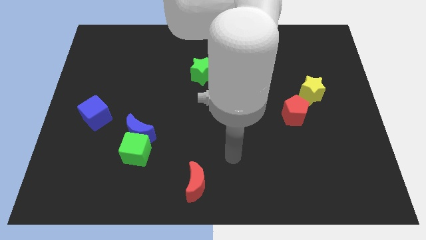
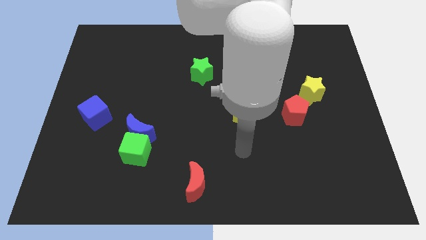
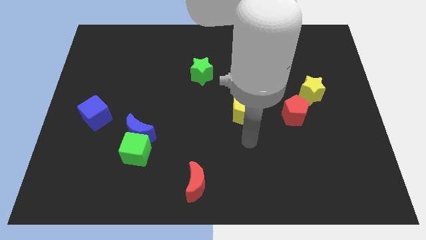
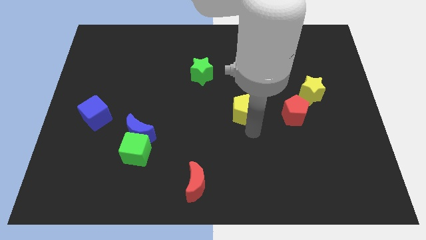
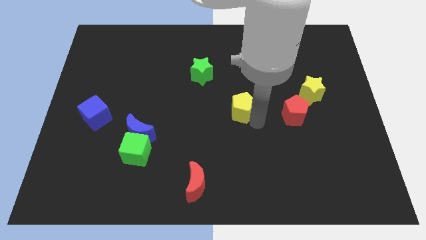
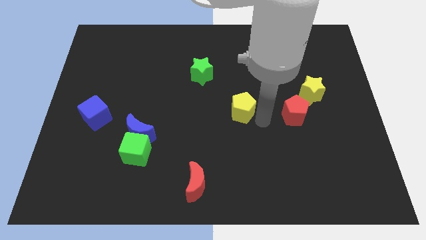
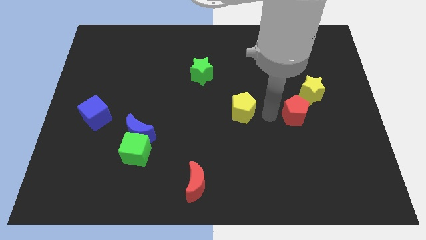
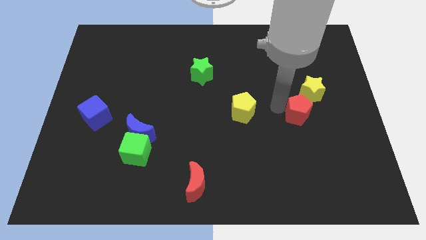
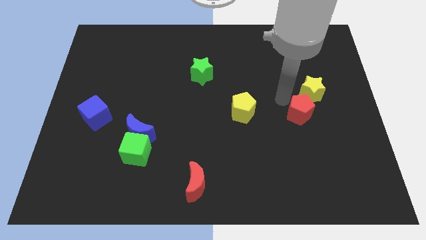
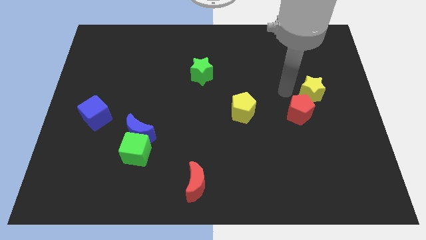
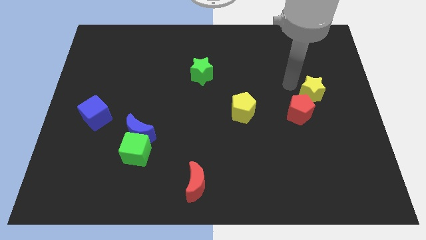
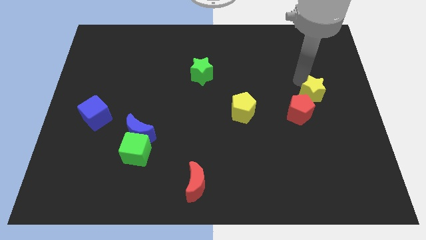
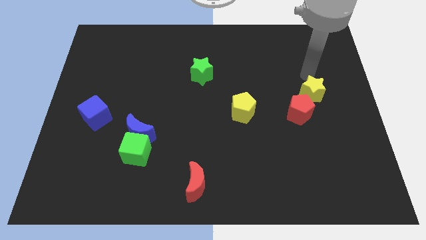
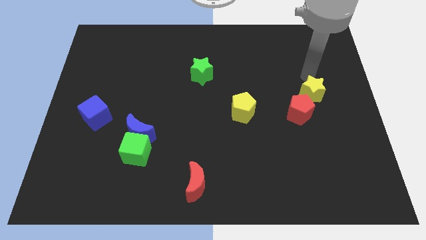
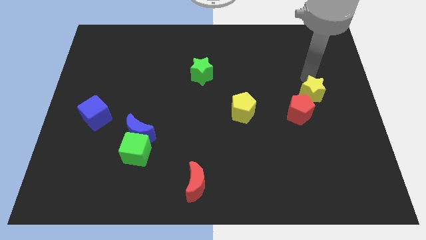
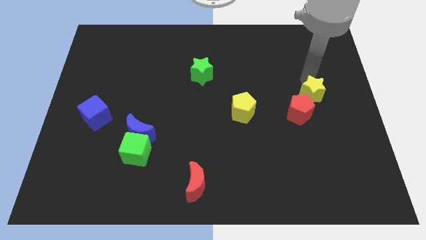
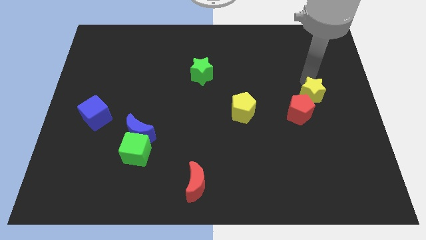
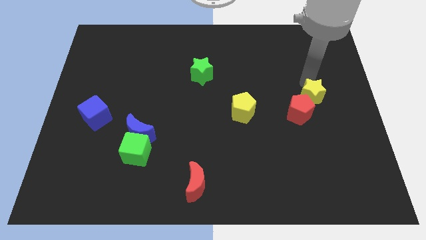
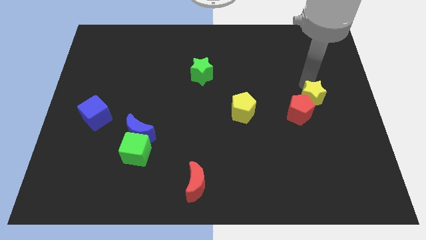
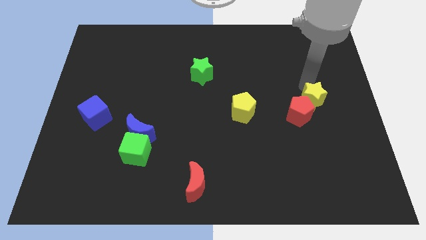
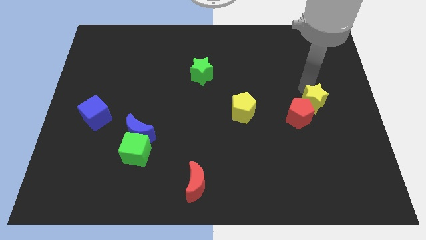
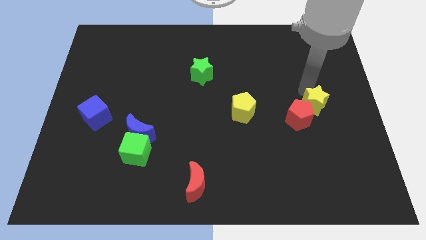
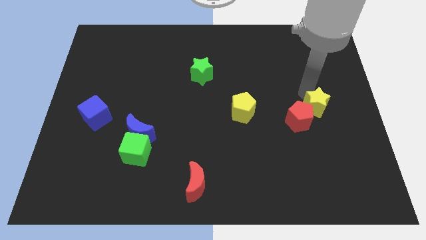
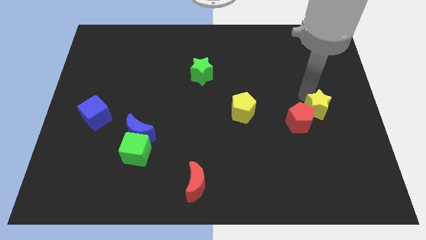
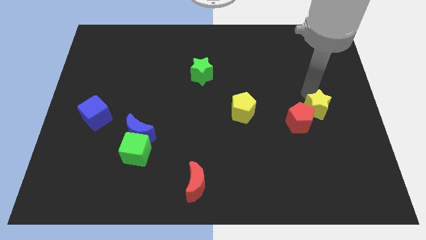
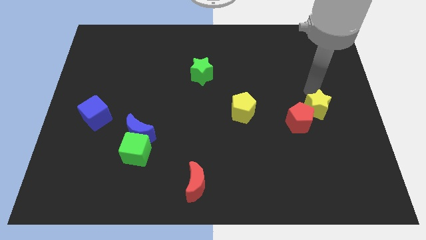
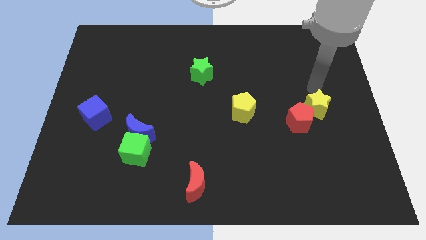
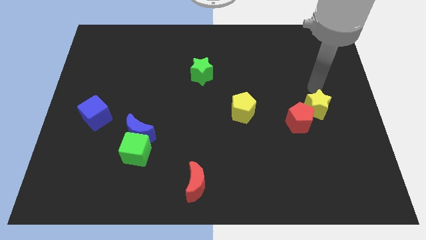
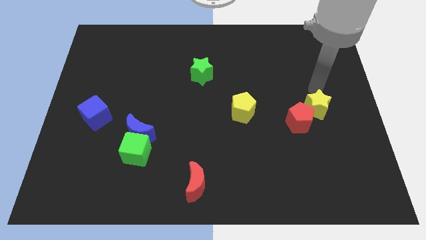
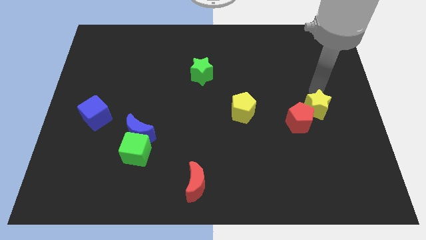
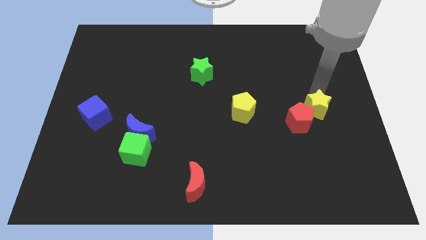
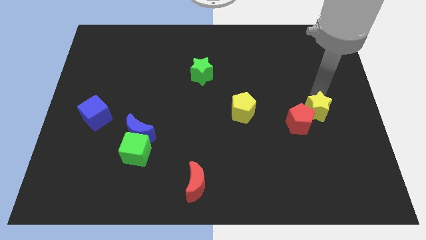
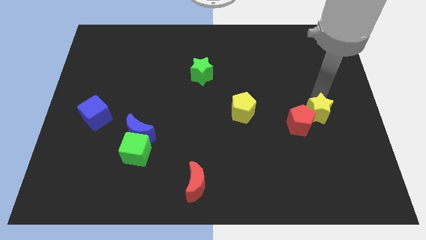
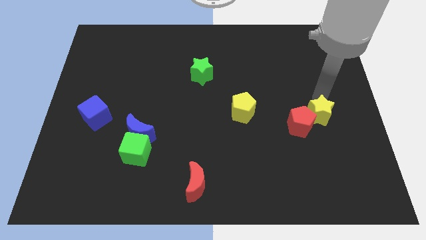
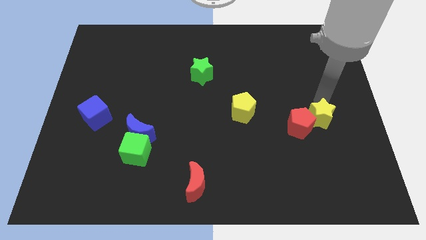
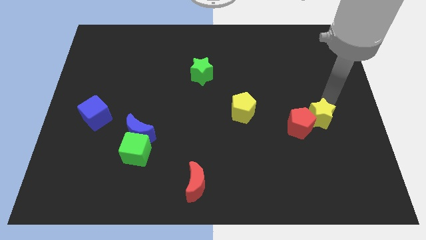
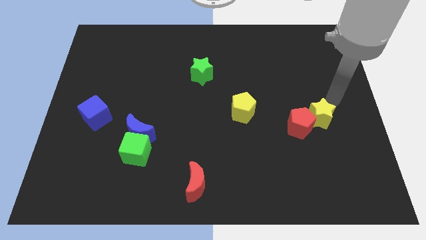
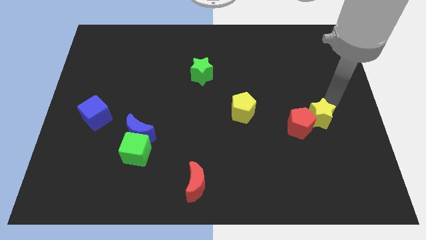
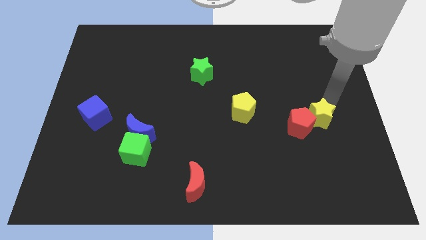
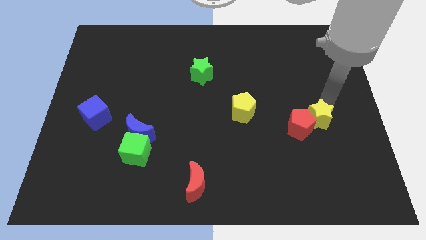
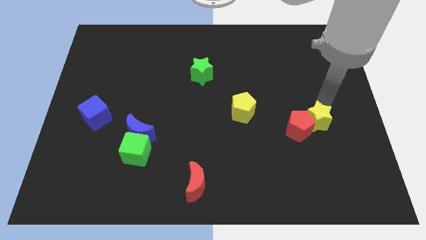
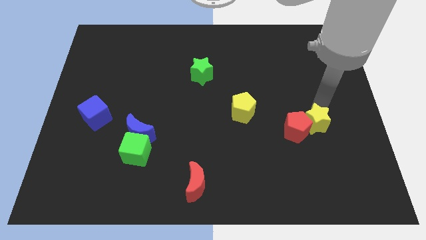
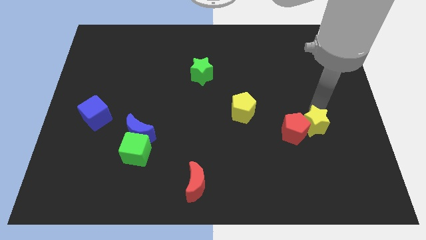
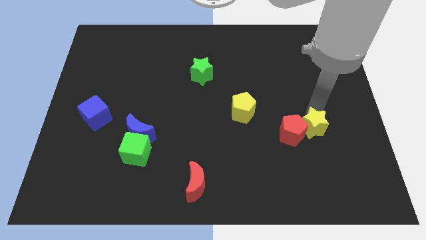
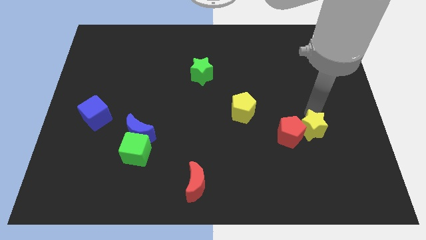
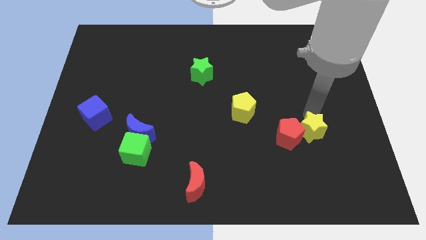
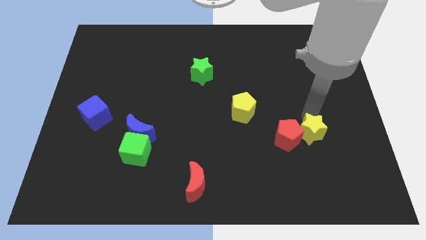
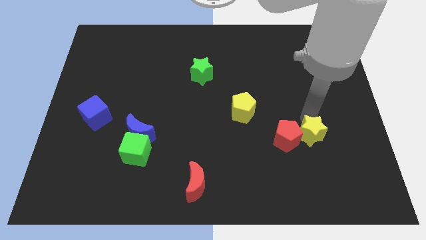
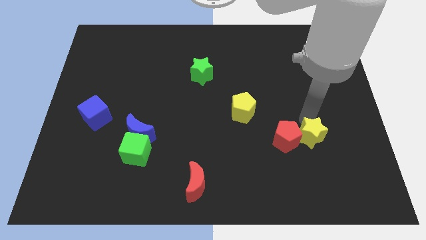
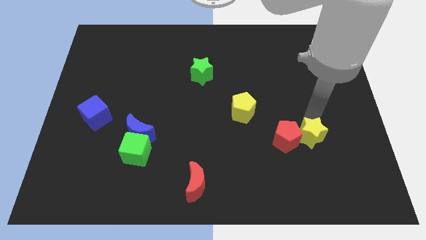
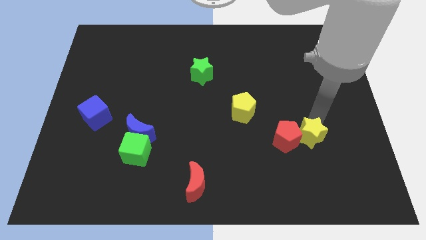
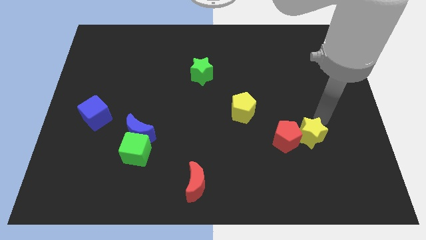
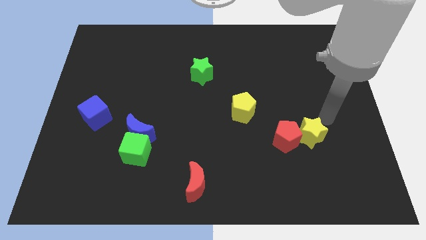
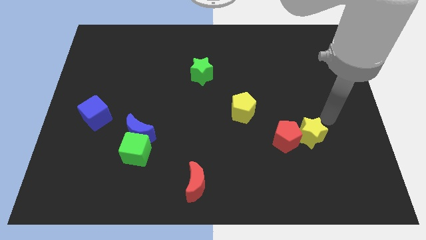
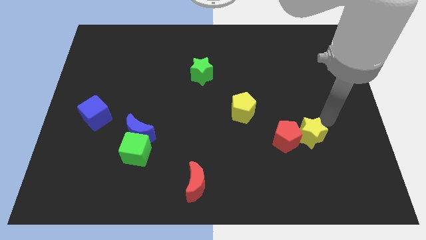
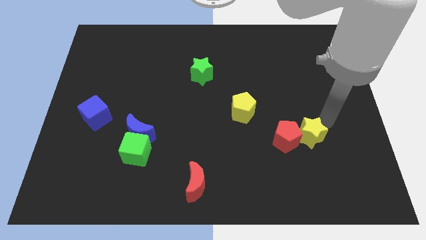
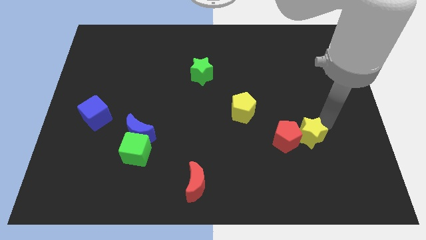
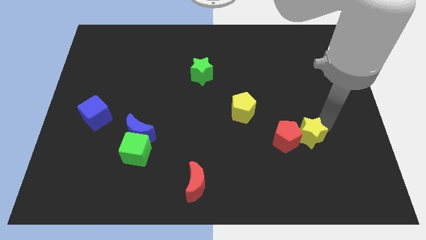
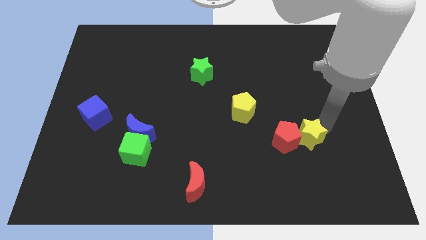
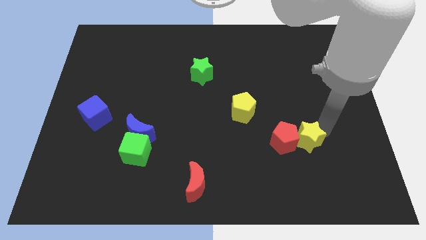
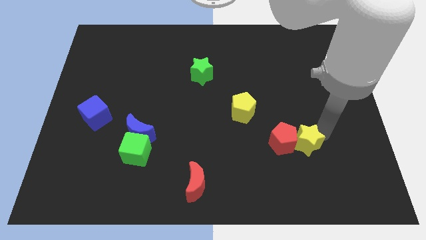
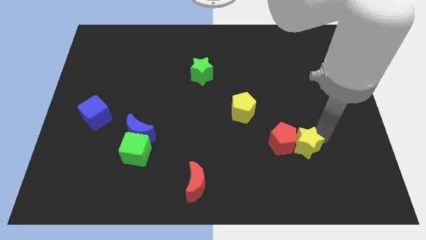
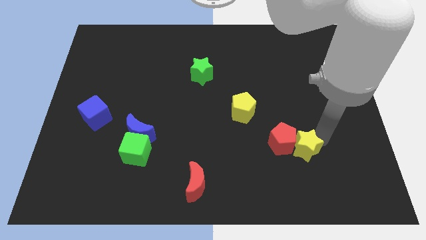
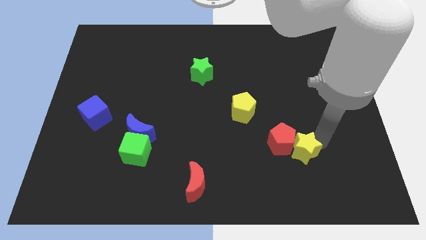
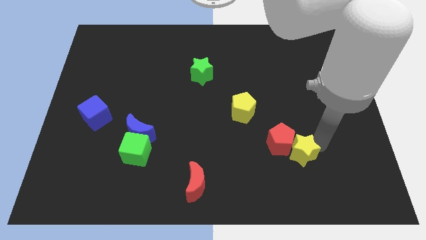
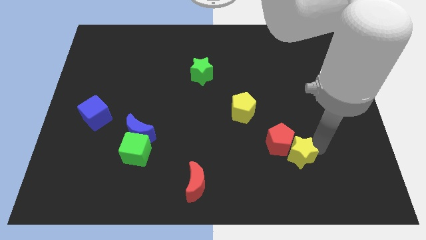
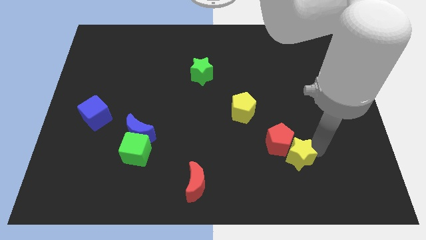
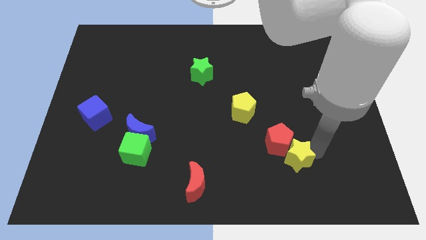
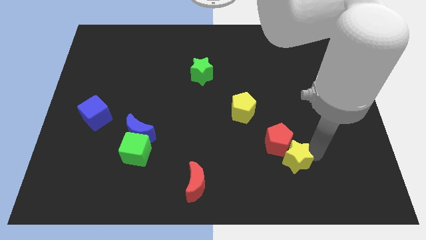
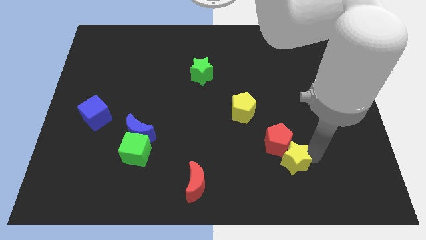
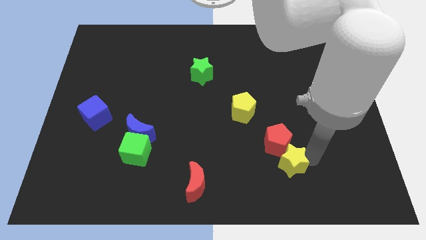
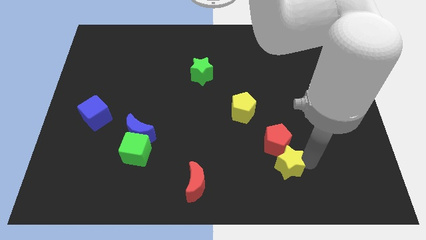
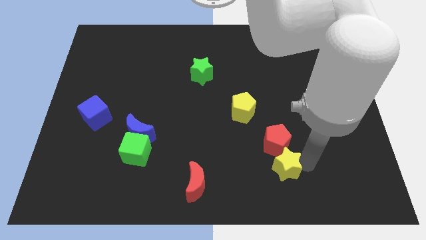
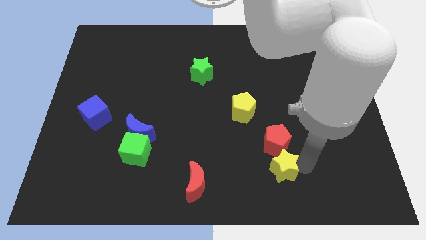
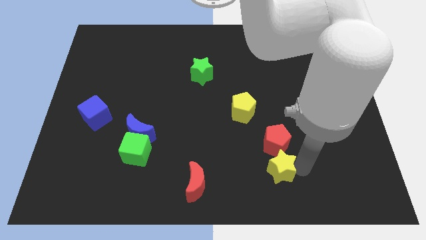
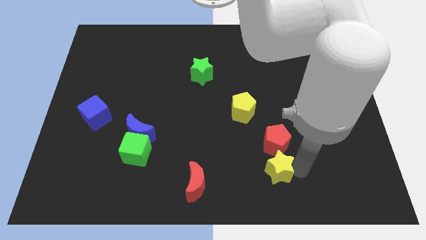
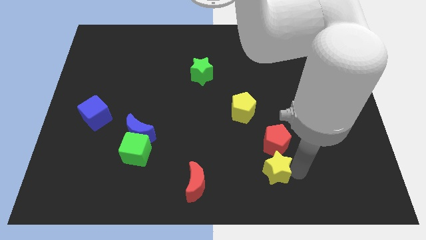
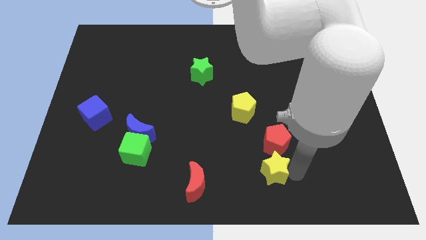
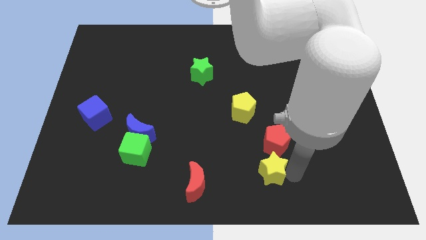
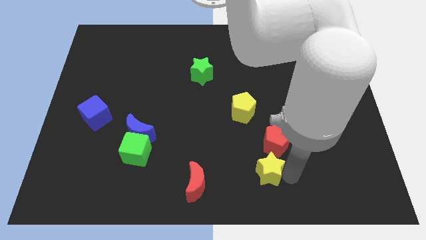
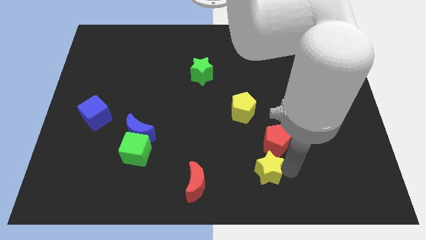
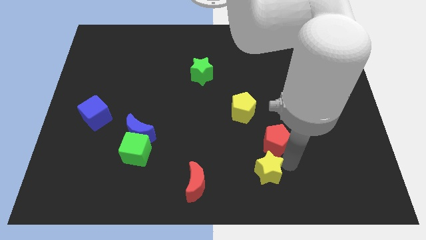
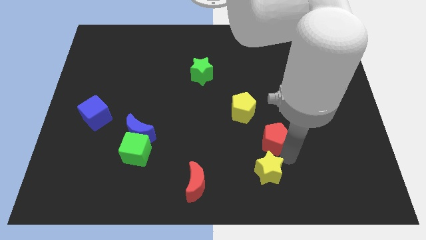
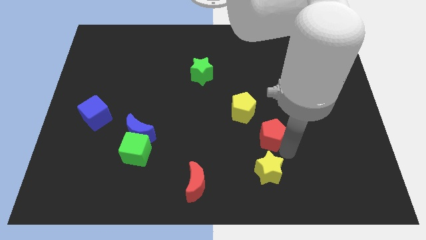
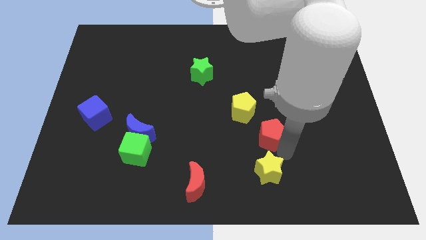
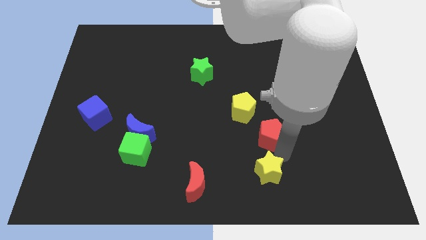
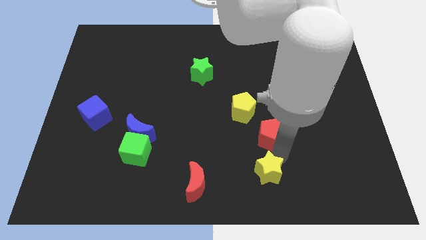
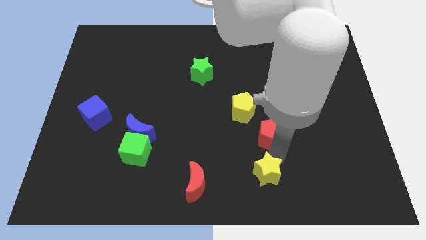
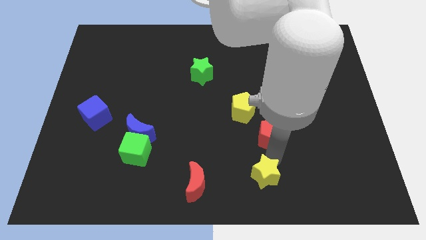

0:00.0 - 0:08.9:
move the yellow star to the bottom
